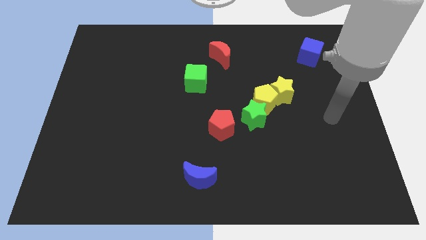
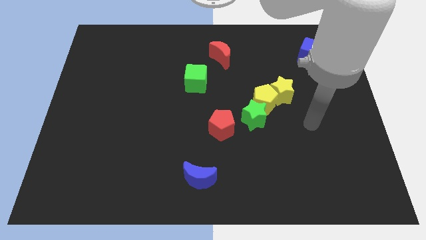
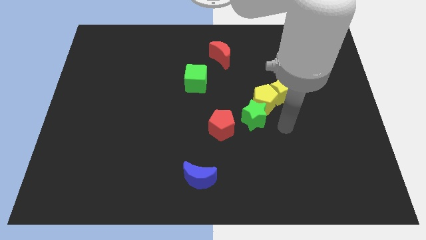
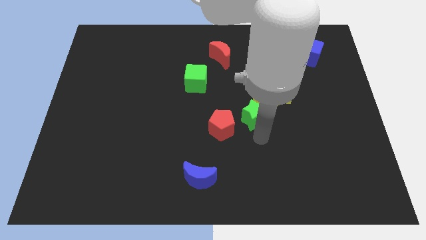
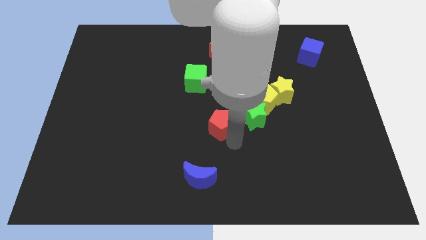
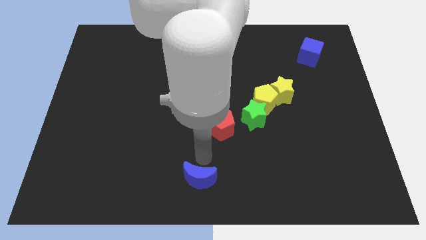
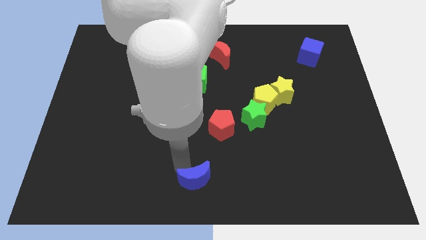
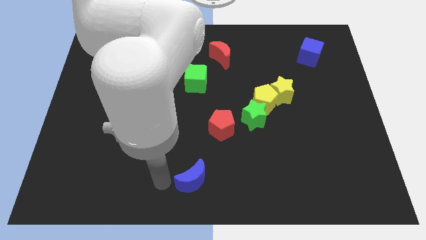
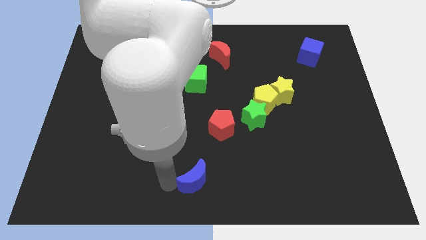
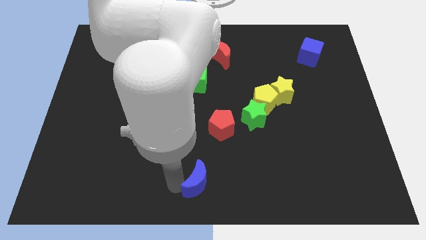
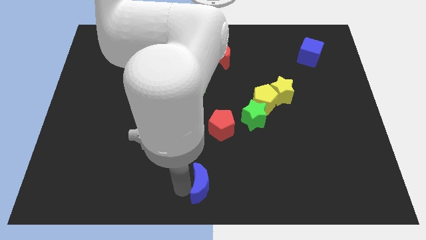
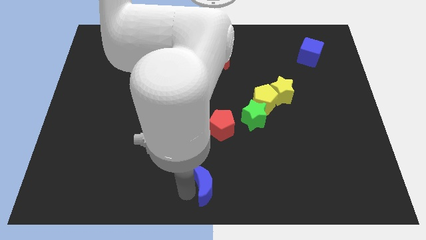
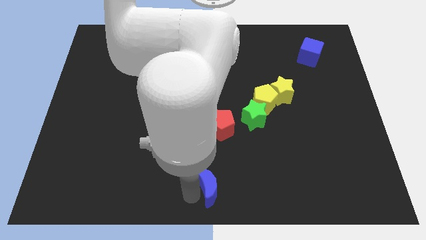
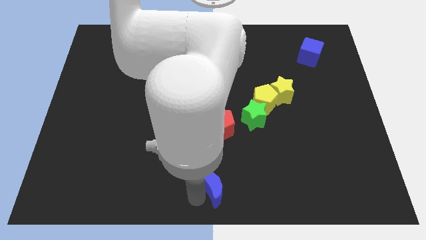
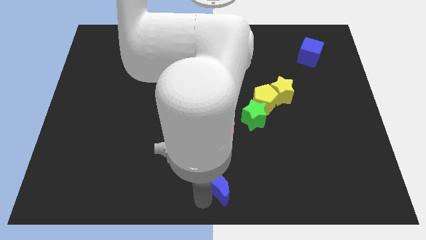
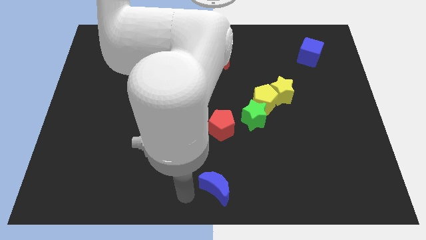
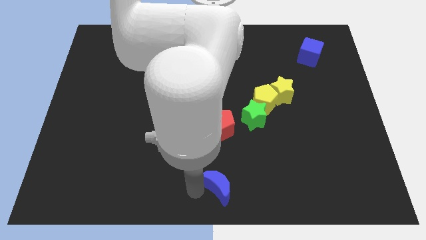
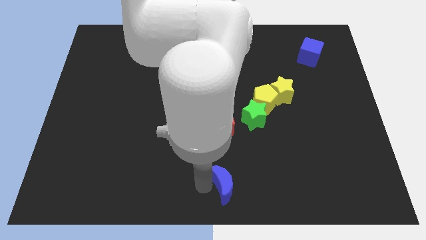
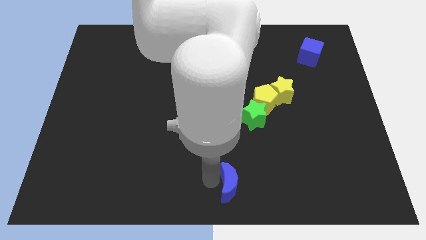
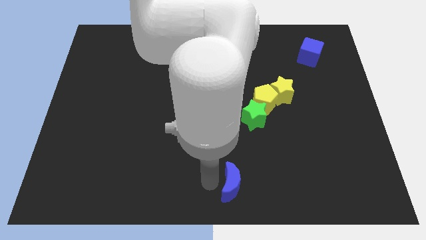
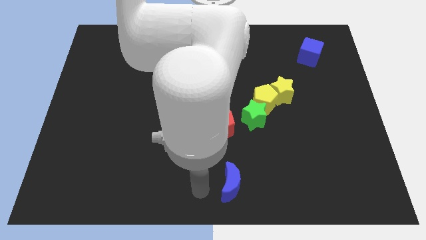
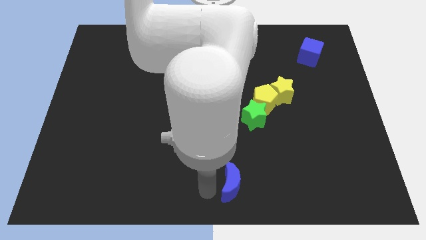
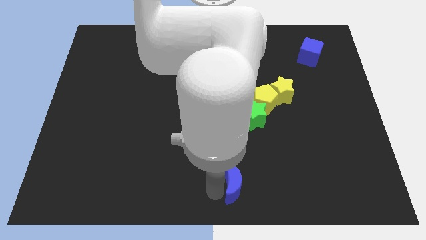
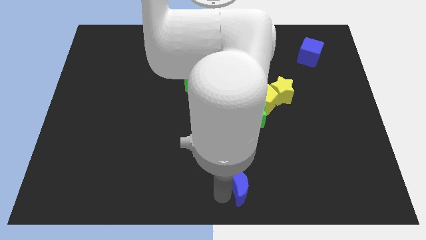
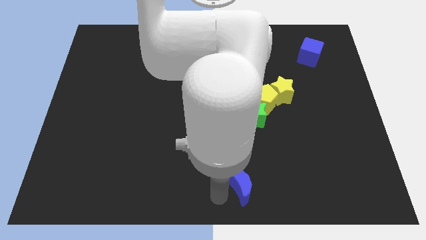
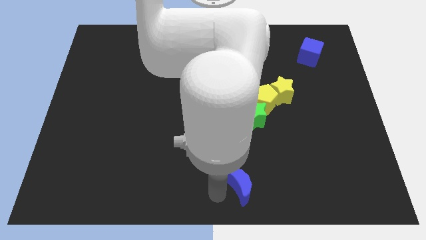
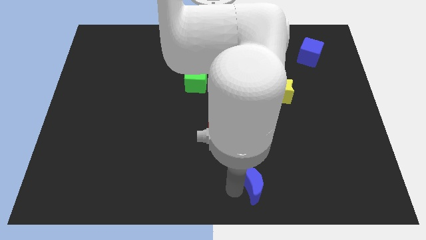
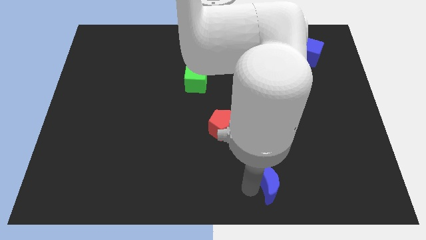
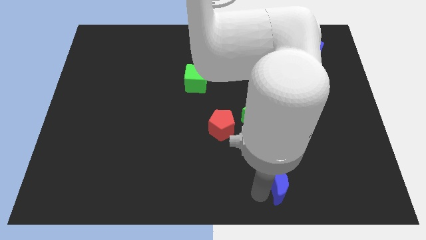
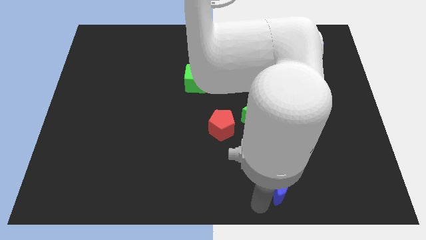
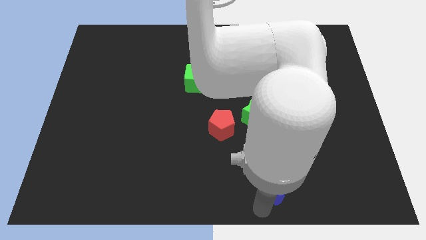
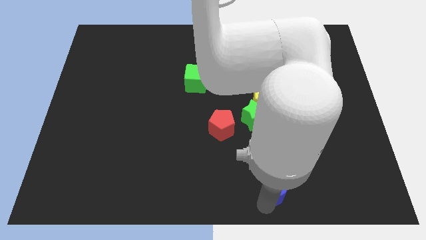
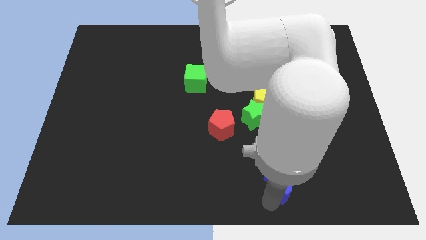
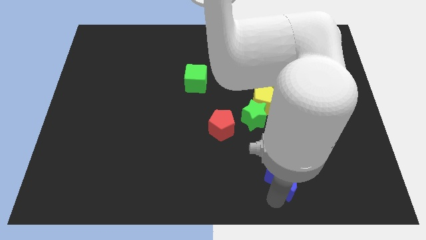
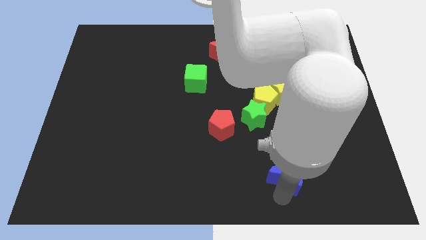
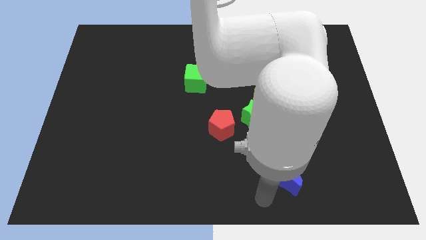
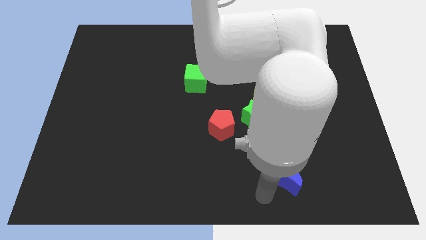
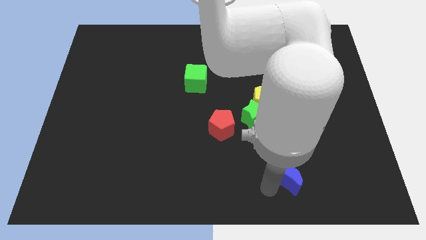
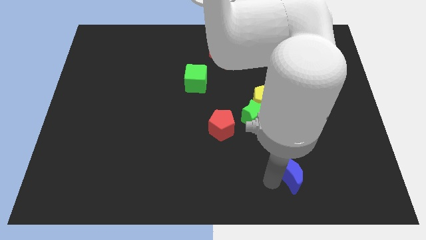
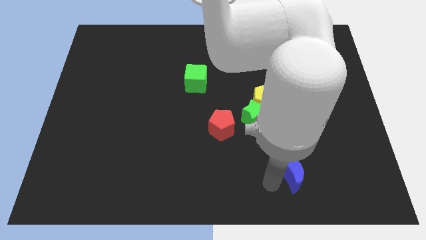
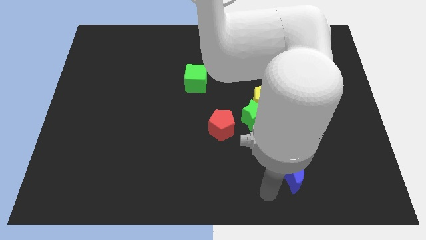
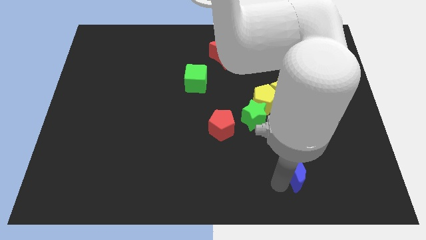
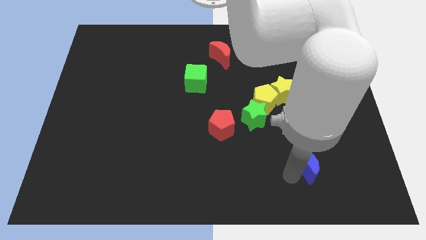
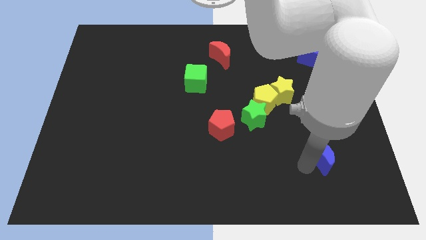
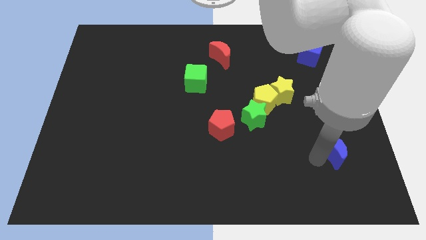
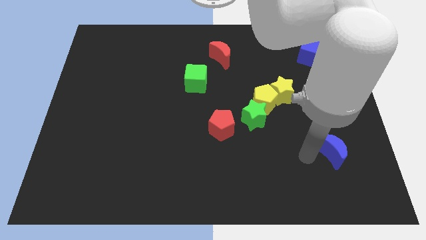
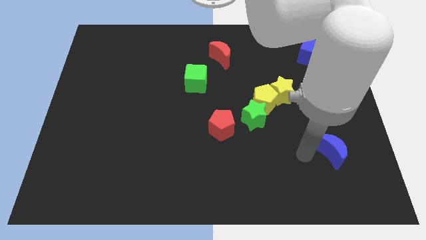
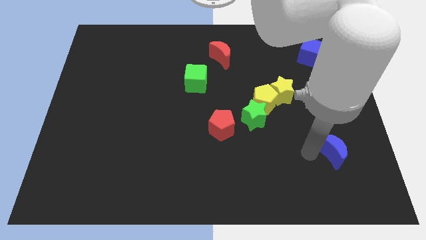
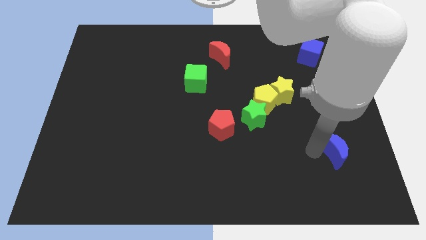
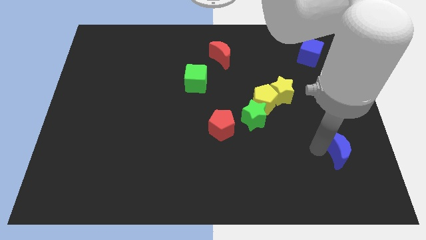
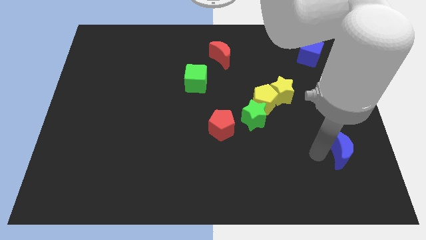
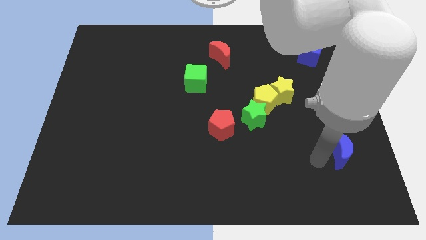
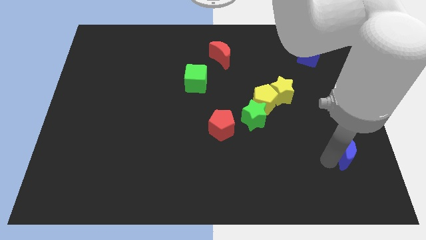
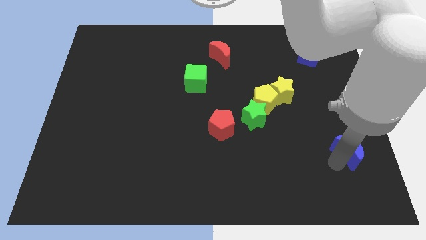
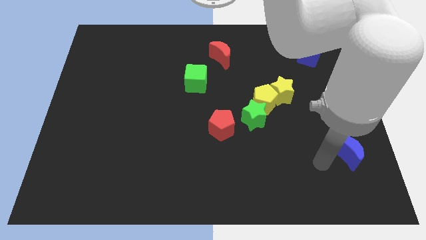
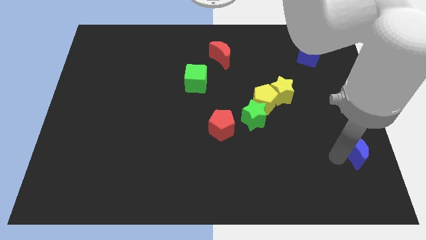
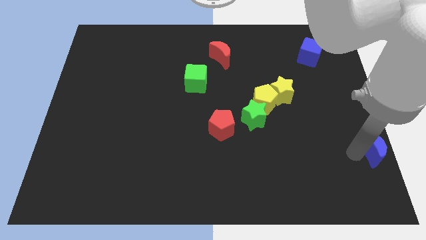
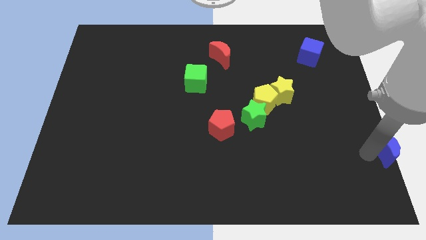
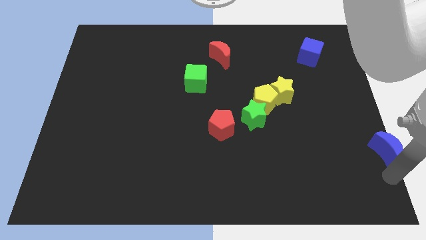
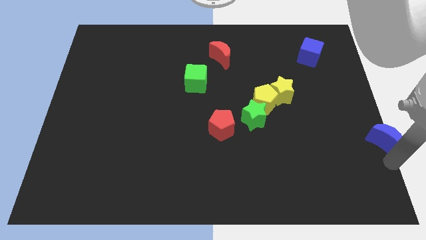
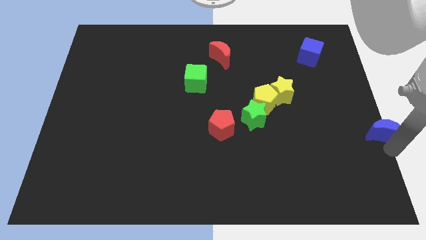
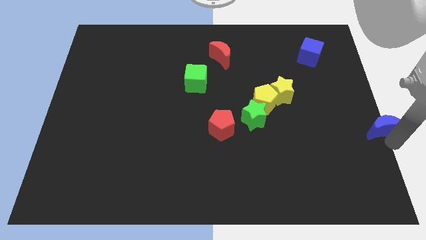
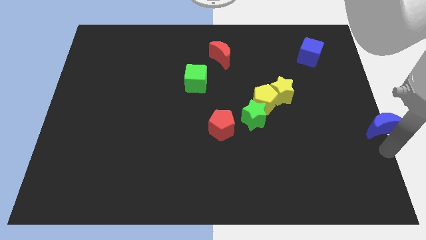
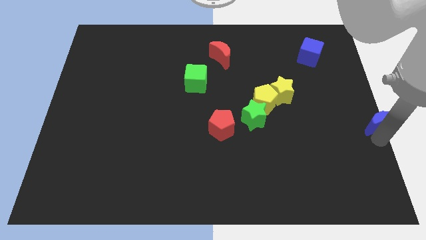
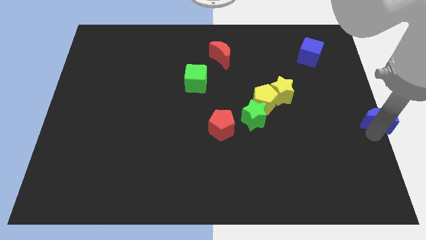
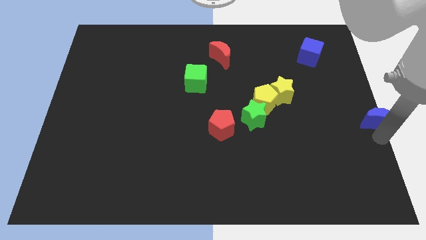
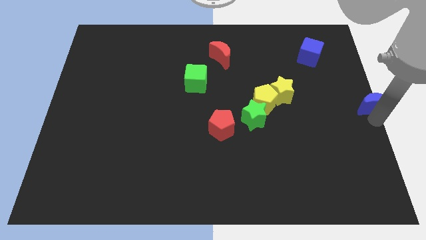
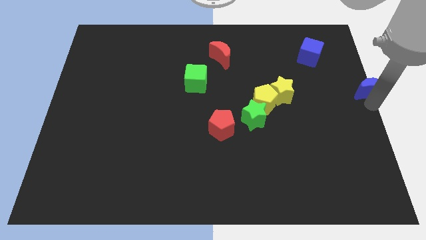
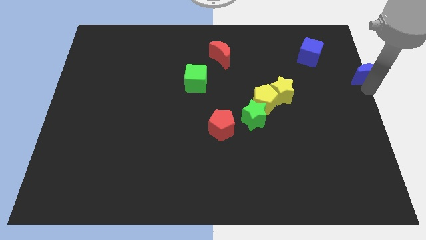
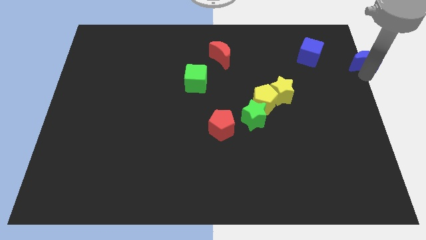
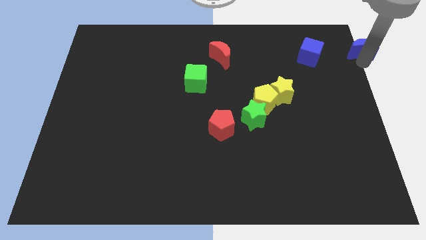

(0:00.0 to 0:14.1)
slide the blue moon to the top right of the board
